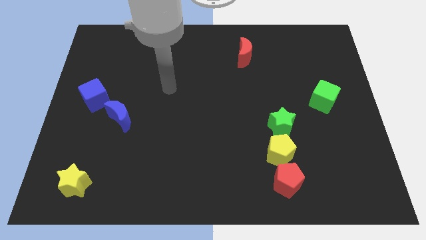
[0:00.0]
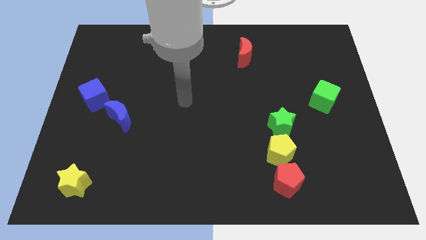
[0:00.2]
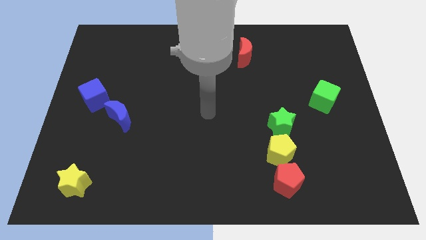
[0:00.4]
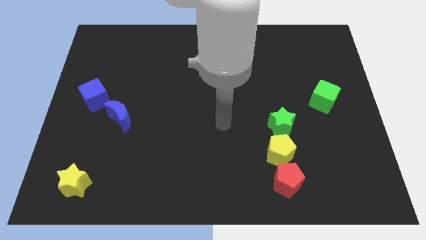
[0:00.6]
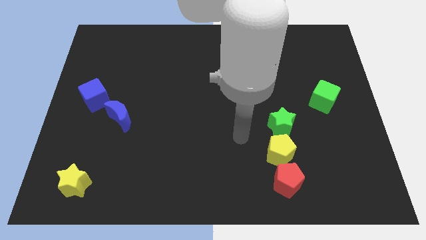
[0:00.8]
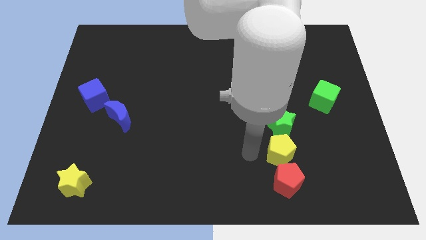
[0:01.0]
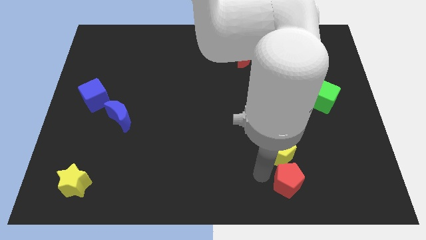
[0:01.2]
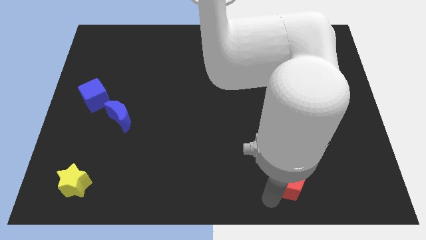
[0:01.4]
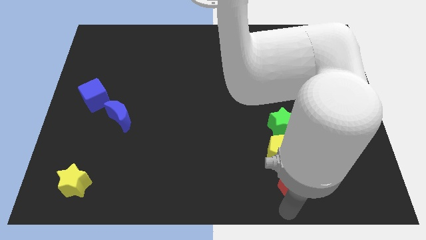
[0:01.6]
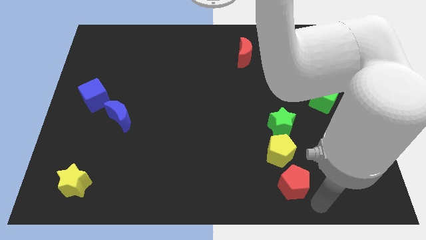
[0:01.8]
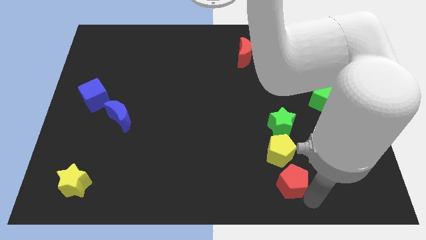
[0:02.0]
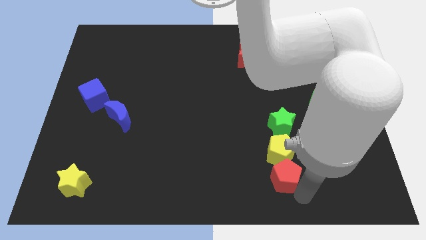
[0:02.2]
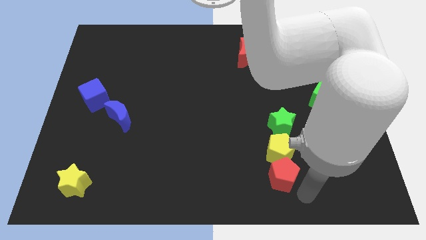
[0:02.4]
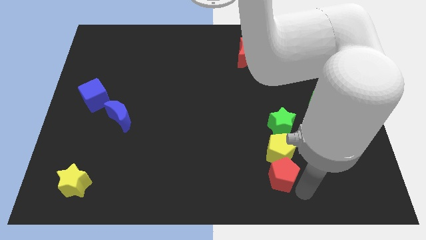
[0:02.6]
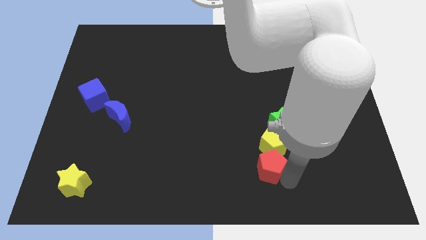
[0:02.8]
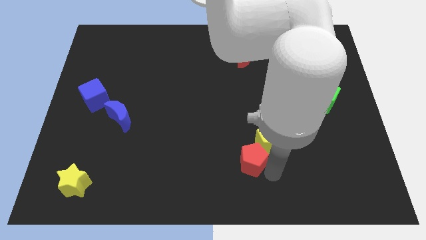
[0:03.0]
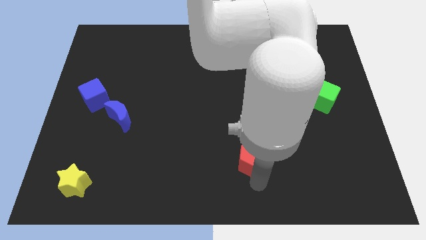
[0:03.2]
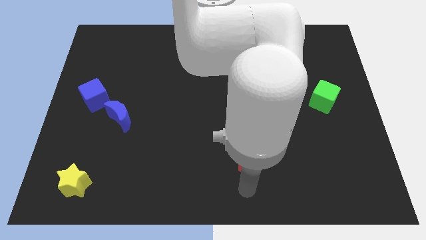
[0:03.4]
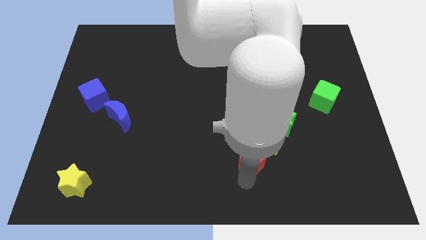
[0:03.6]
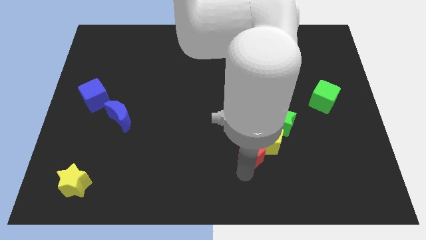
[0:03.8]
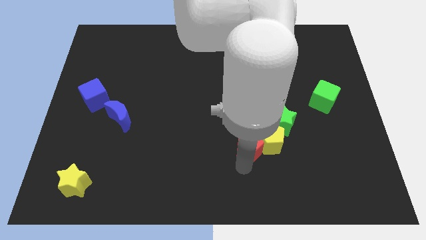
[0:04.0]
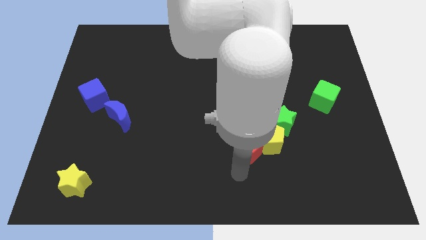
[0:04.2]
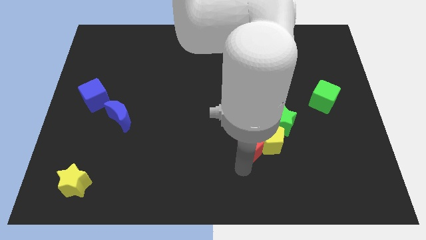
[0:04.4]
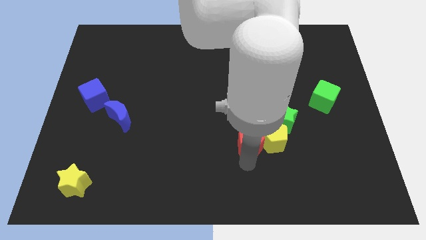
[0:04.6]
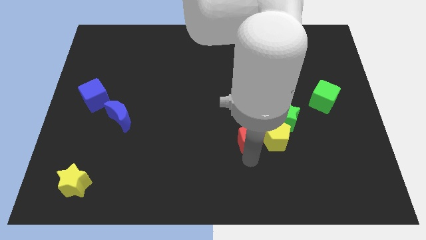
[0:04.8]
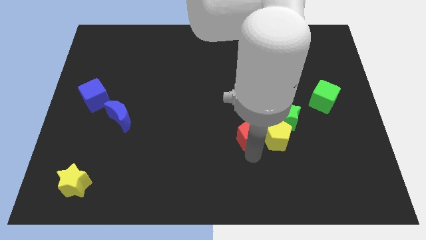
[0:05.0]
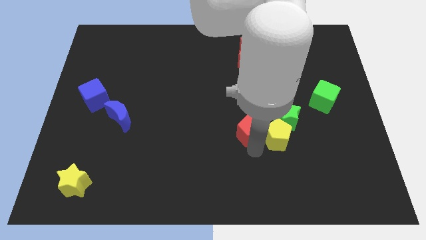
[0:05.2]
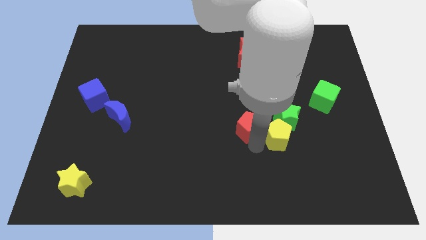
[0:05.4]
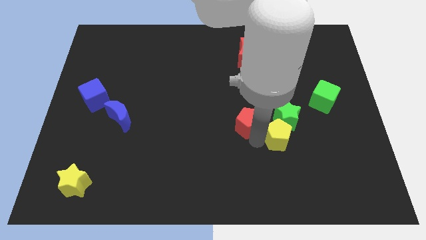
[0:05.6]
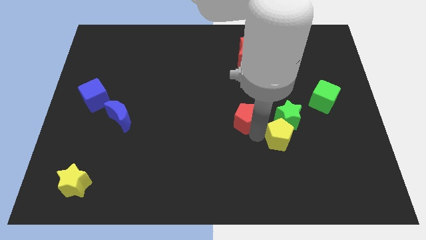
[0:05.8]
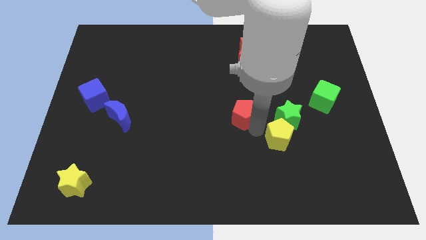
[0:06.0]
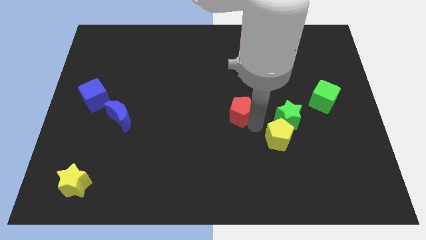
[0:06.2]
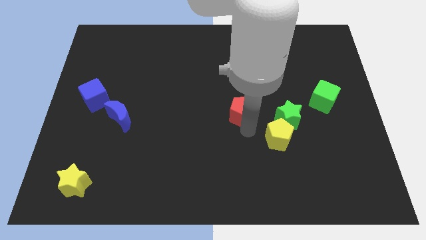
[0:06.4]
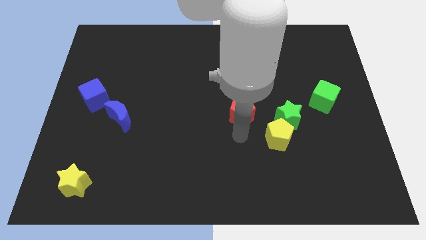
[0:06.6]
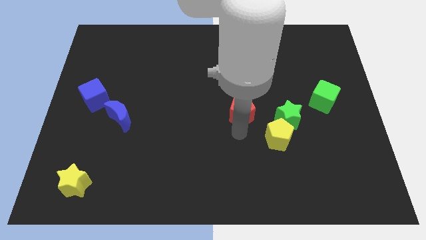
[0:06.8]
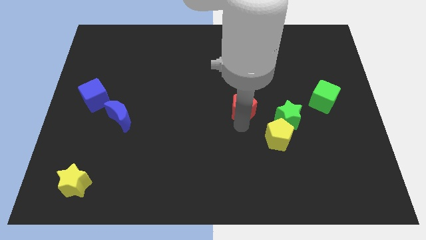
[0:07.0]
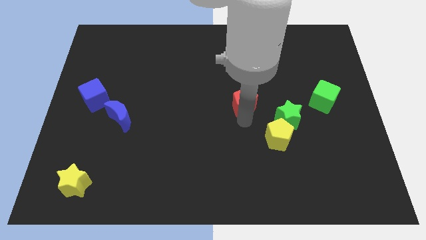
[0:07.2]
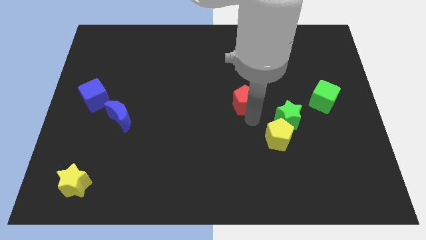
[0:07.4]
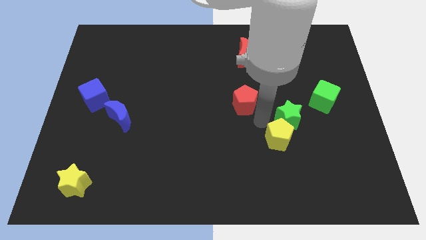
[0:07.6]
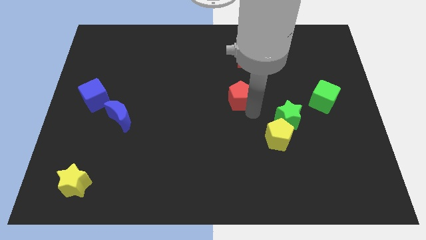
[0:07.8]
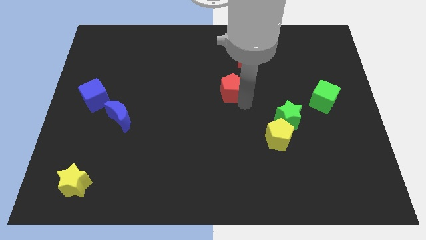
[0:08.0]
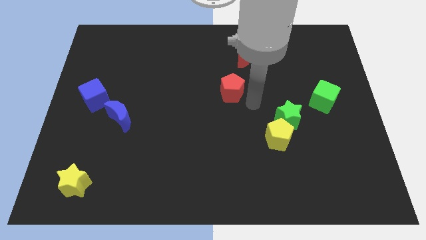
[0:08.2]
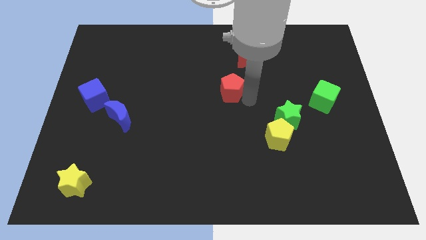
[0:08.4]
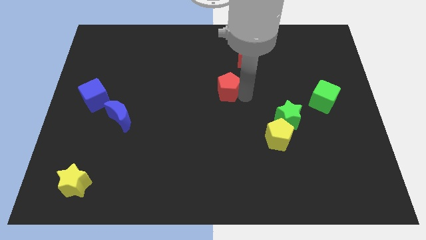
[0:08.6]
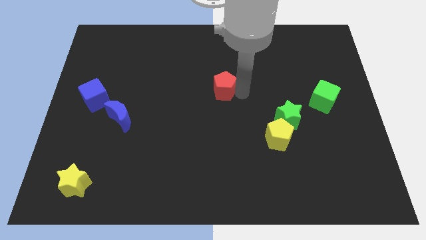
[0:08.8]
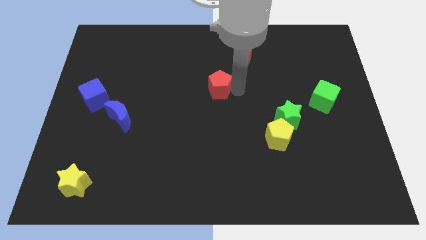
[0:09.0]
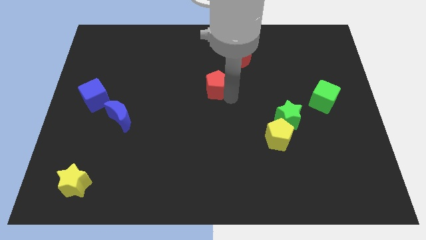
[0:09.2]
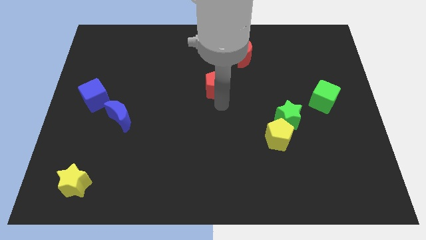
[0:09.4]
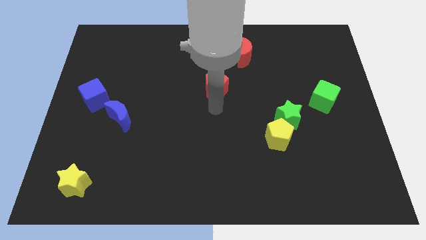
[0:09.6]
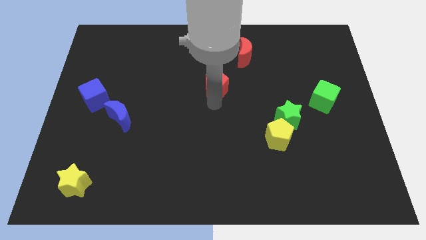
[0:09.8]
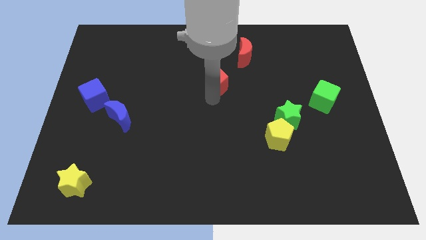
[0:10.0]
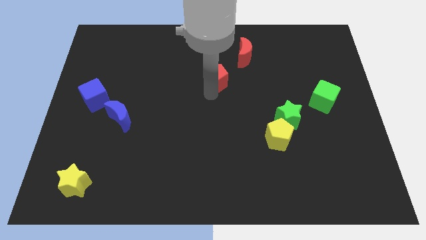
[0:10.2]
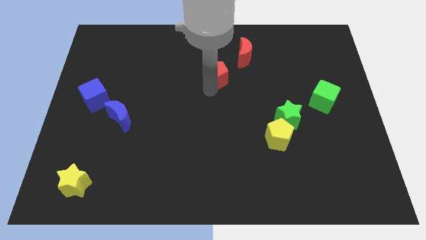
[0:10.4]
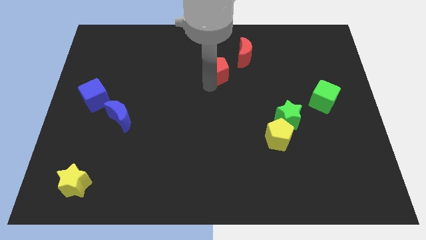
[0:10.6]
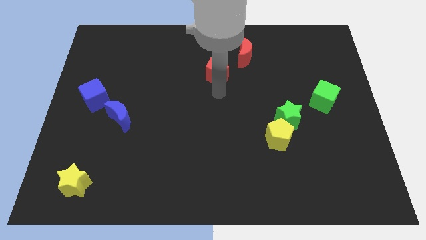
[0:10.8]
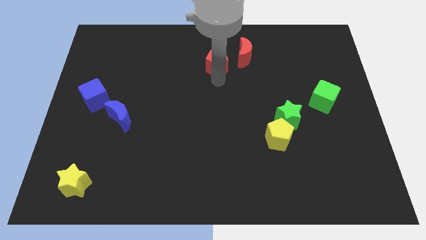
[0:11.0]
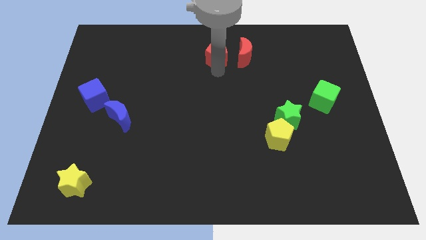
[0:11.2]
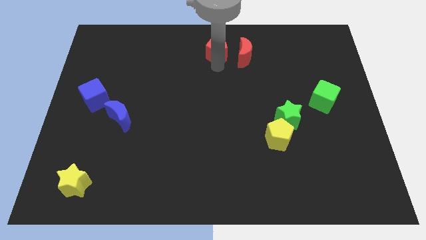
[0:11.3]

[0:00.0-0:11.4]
put the red pentagon to the top

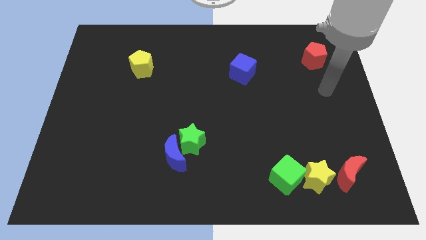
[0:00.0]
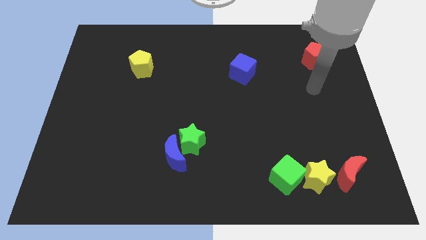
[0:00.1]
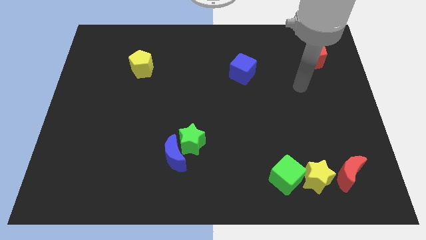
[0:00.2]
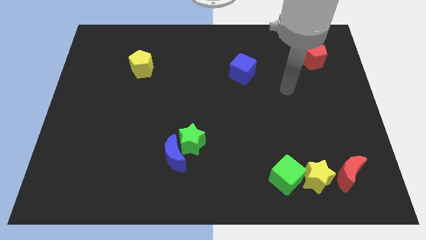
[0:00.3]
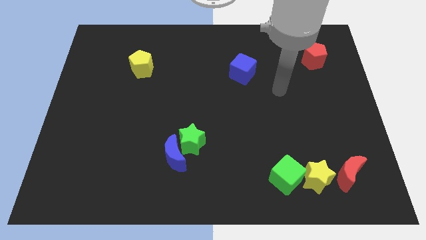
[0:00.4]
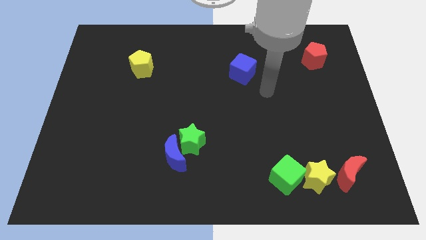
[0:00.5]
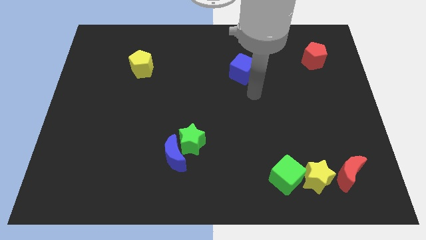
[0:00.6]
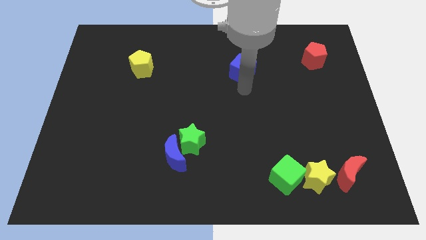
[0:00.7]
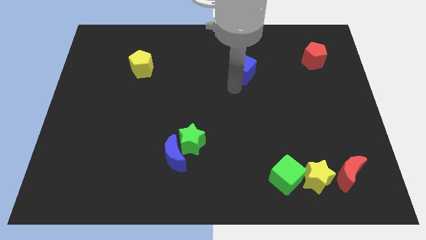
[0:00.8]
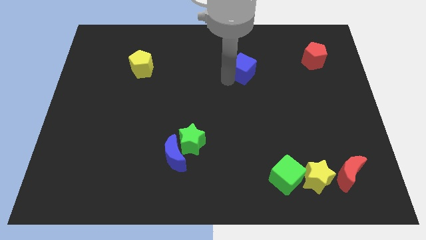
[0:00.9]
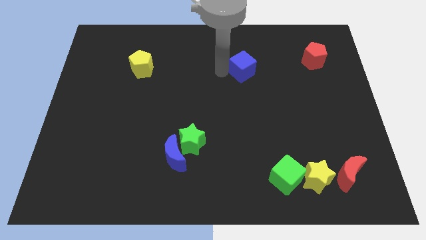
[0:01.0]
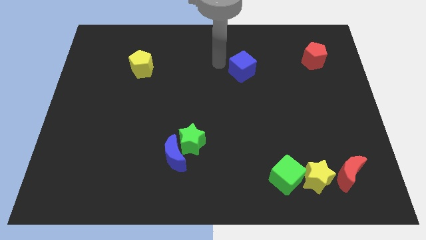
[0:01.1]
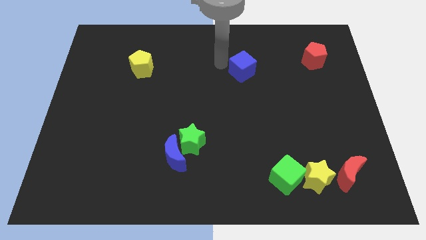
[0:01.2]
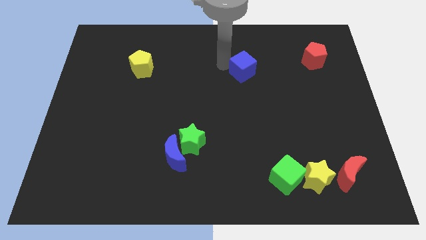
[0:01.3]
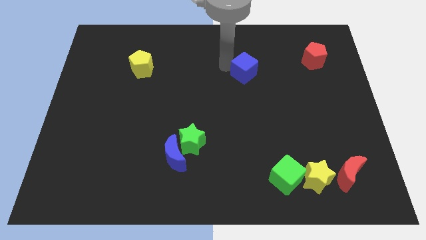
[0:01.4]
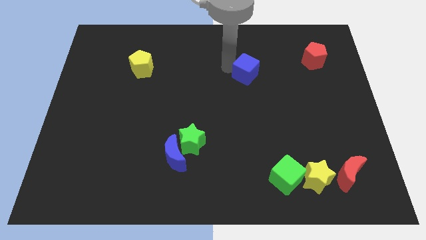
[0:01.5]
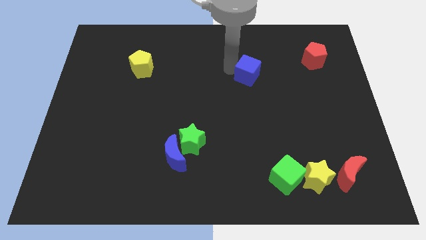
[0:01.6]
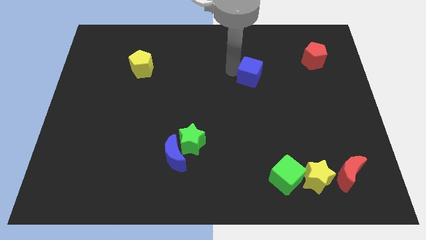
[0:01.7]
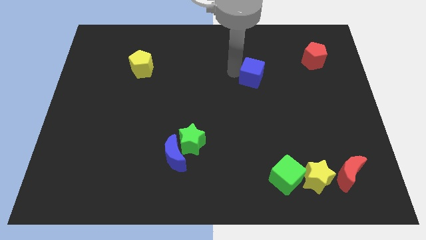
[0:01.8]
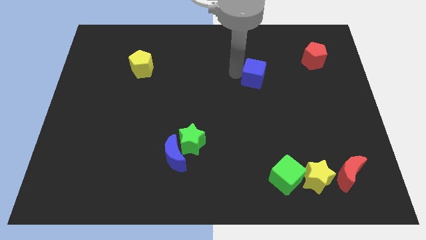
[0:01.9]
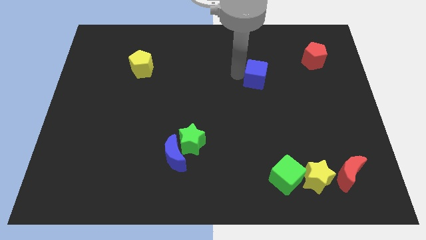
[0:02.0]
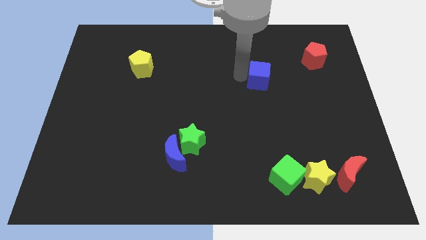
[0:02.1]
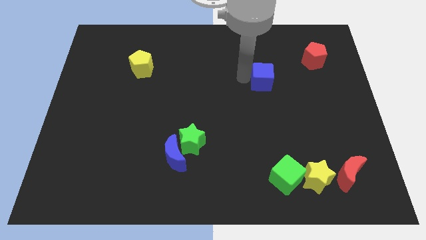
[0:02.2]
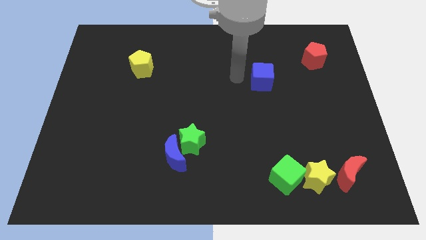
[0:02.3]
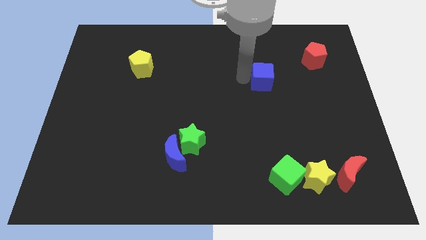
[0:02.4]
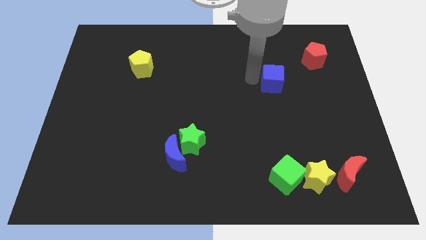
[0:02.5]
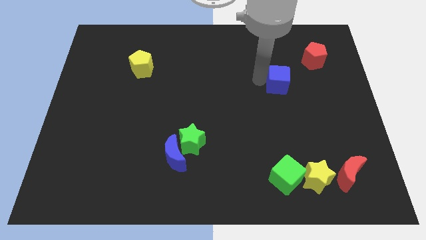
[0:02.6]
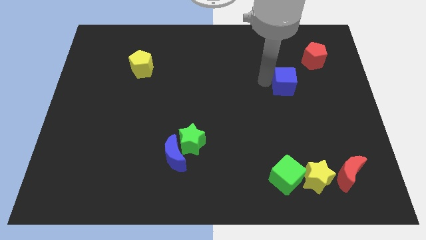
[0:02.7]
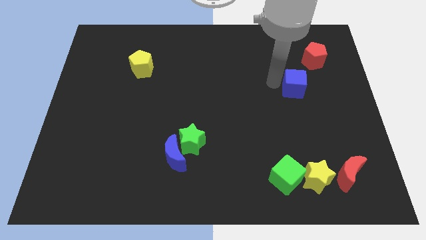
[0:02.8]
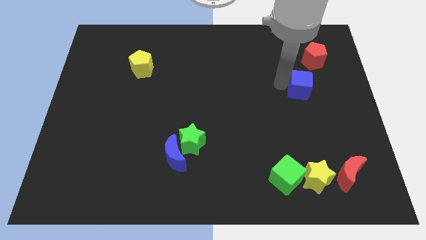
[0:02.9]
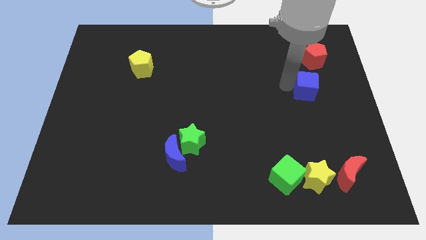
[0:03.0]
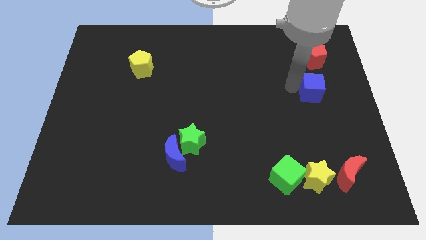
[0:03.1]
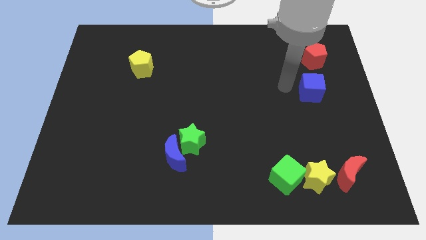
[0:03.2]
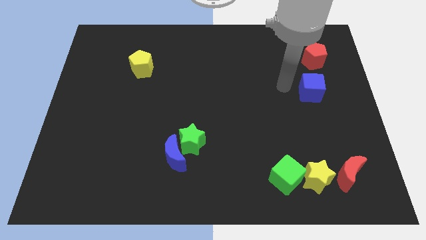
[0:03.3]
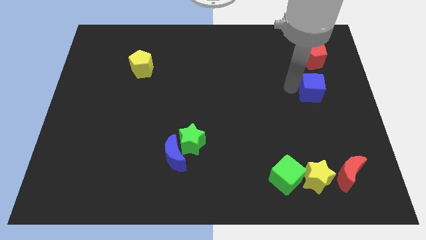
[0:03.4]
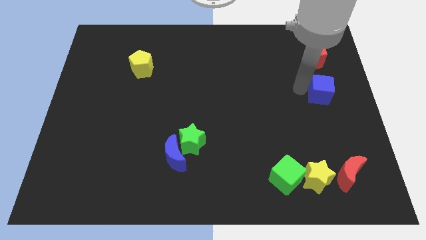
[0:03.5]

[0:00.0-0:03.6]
slide the blue cube to the center right
